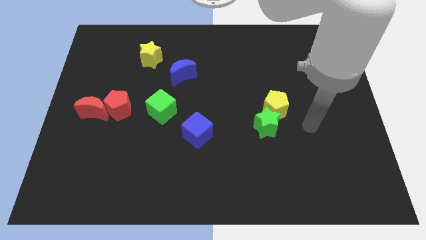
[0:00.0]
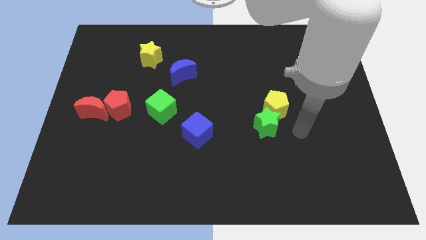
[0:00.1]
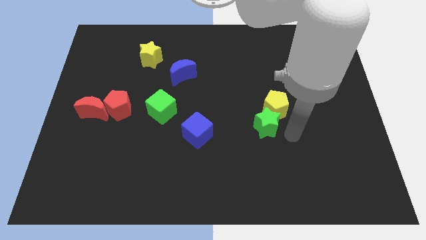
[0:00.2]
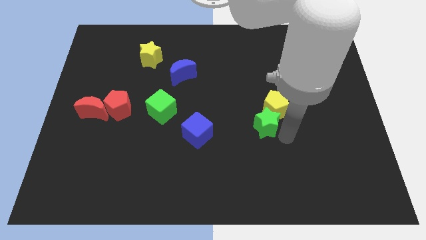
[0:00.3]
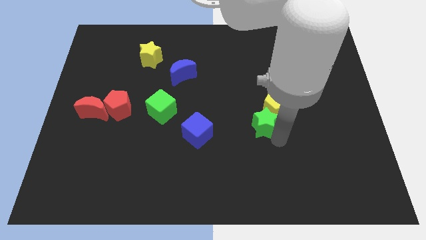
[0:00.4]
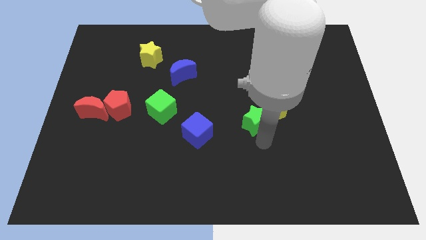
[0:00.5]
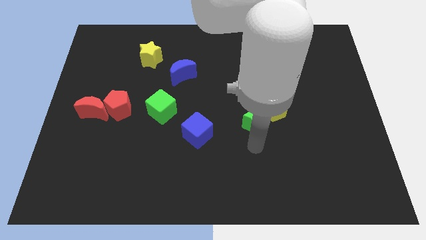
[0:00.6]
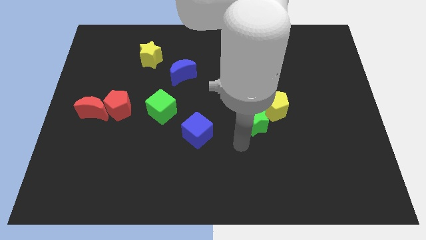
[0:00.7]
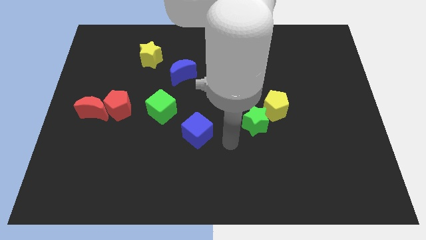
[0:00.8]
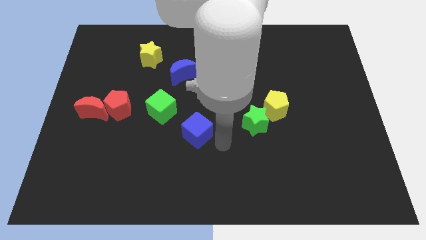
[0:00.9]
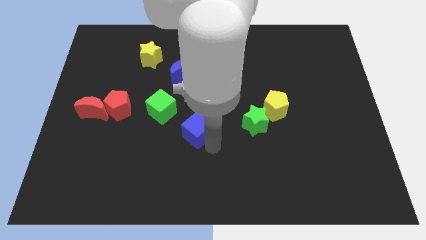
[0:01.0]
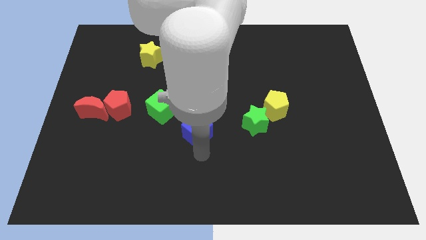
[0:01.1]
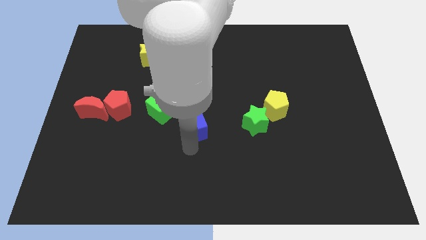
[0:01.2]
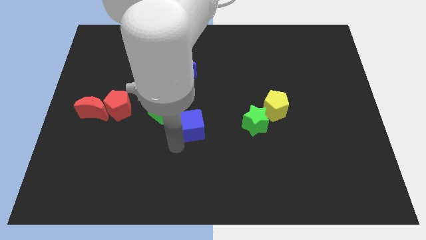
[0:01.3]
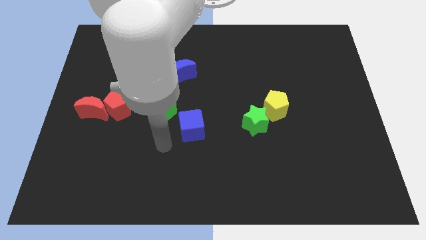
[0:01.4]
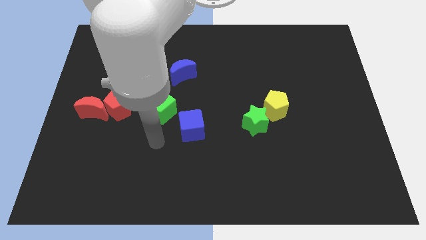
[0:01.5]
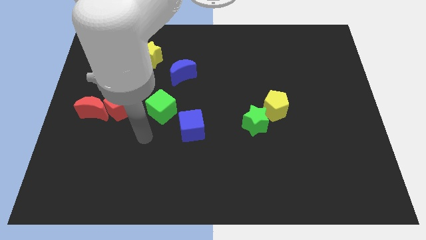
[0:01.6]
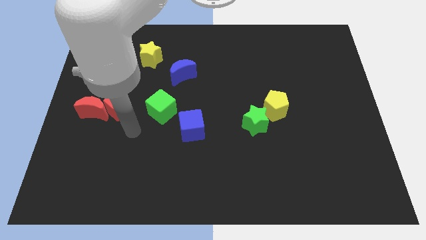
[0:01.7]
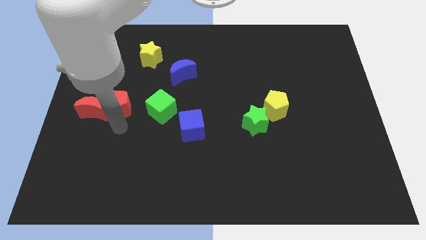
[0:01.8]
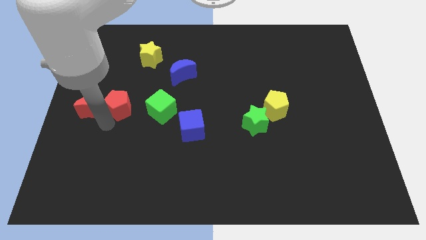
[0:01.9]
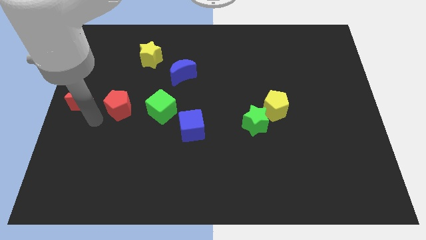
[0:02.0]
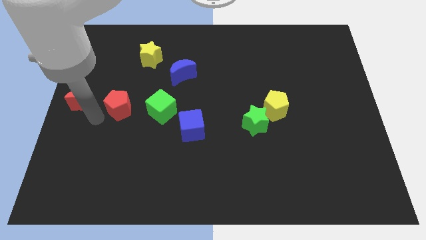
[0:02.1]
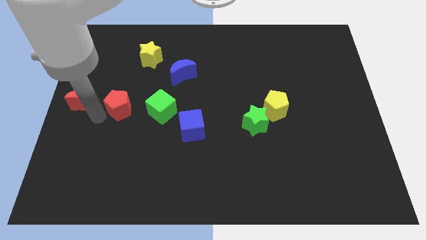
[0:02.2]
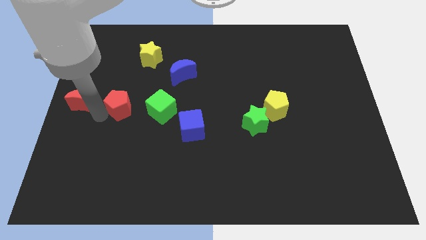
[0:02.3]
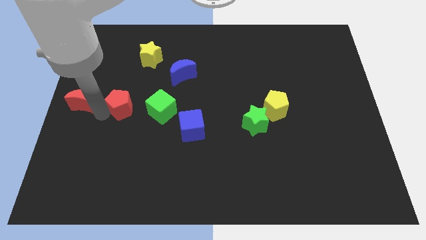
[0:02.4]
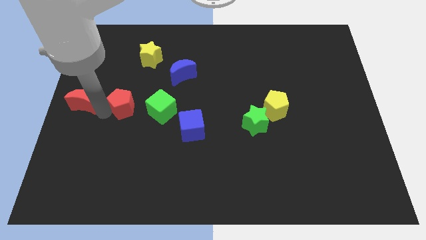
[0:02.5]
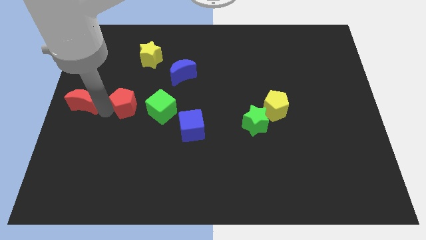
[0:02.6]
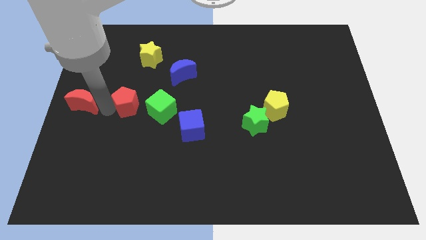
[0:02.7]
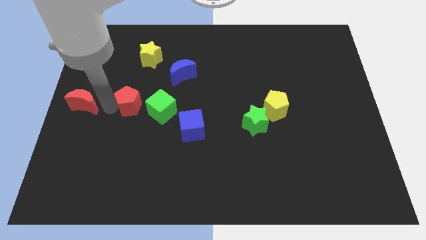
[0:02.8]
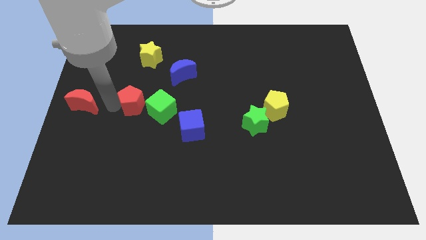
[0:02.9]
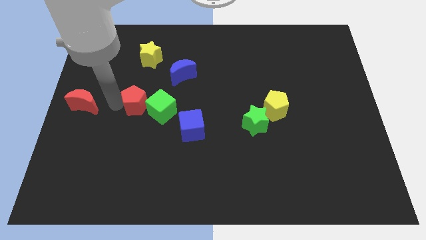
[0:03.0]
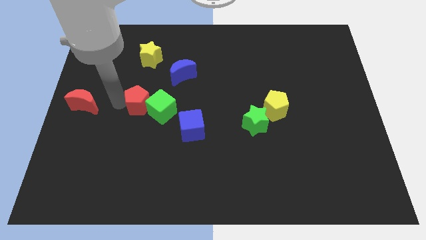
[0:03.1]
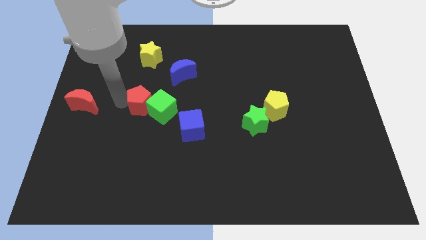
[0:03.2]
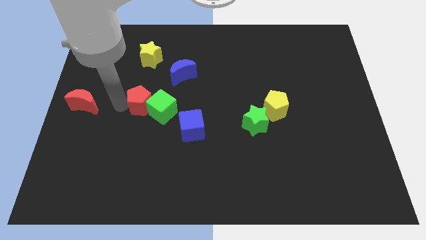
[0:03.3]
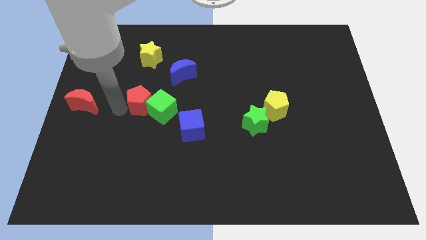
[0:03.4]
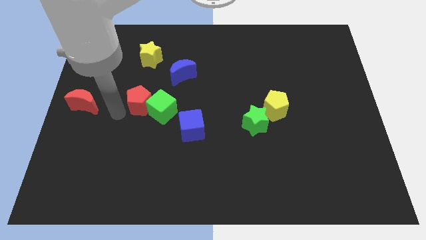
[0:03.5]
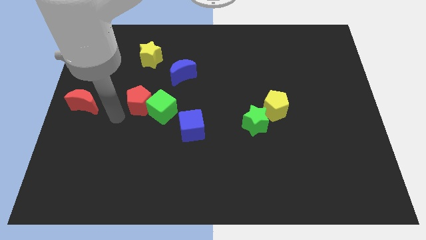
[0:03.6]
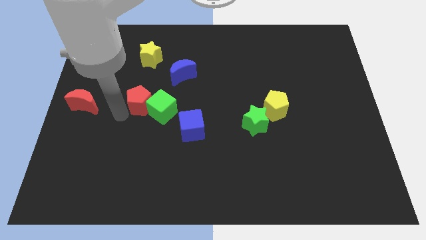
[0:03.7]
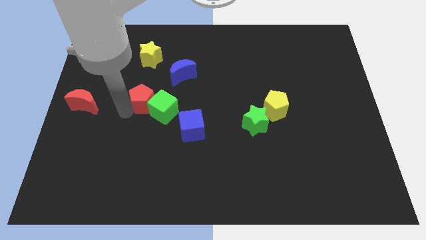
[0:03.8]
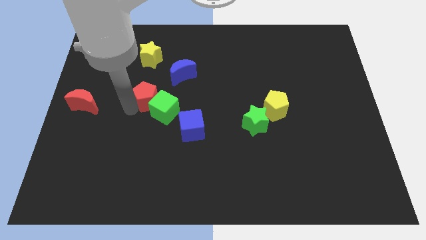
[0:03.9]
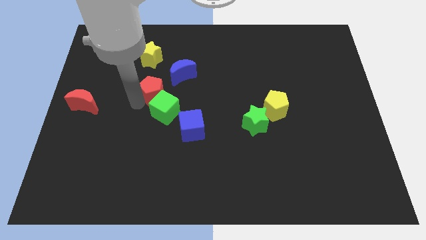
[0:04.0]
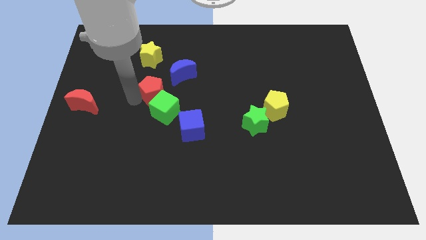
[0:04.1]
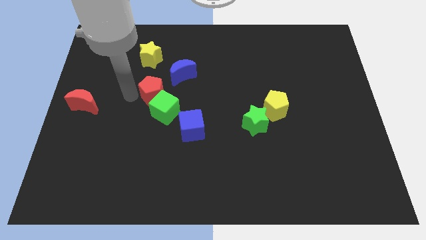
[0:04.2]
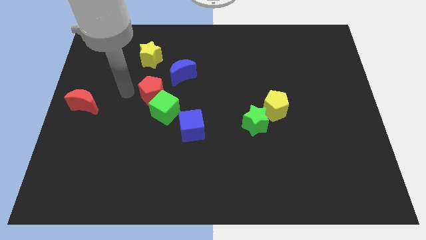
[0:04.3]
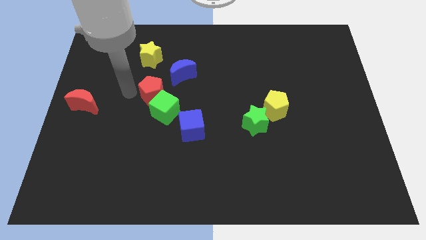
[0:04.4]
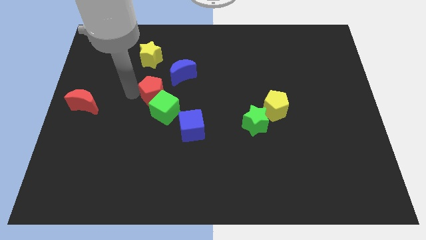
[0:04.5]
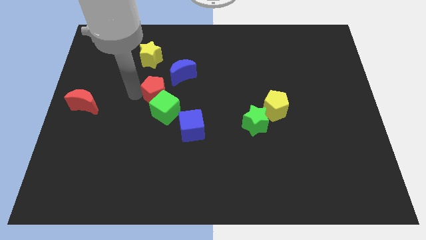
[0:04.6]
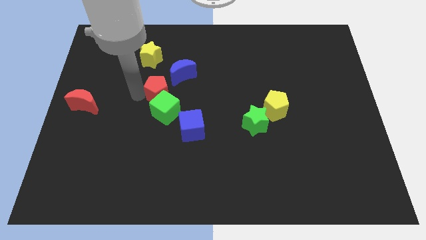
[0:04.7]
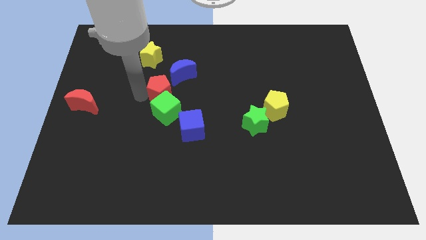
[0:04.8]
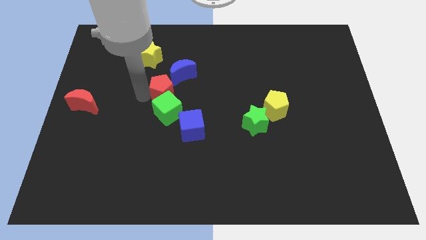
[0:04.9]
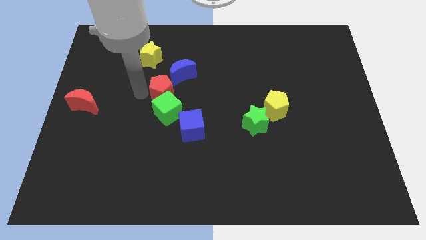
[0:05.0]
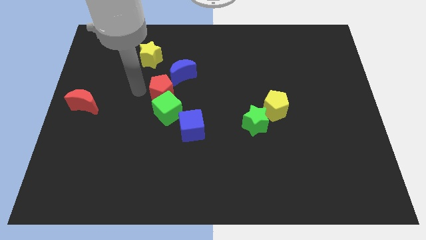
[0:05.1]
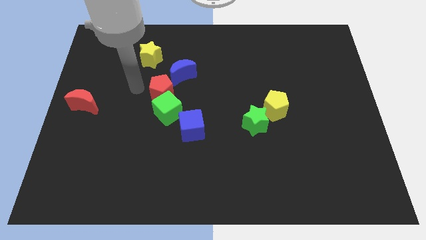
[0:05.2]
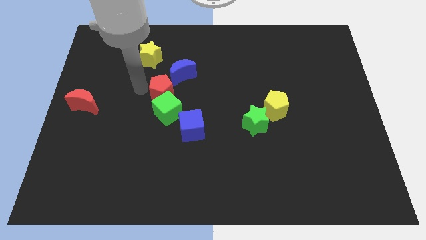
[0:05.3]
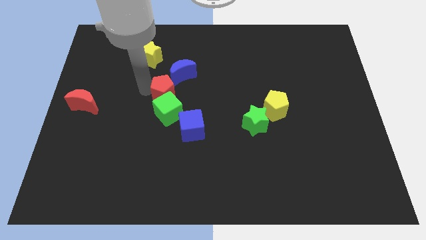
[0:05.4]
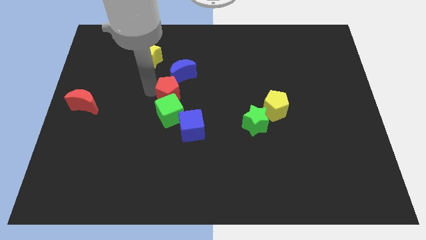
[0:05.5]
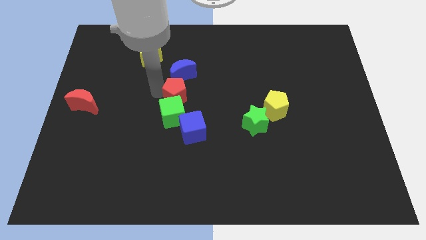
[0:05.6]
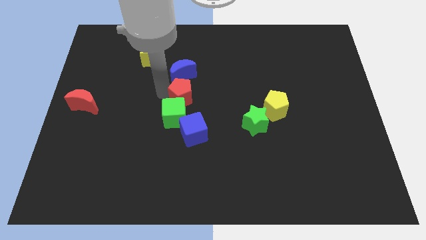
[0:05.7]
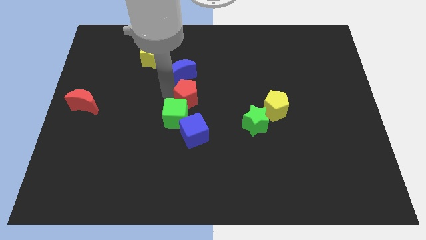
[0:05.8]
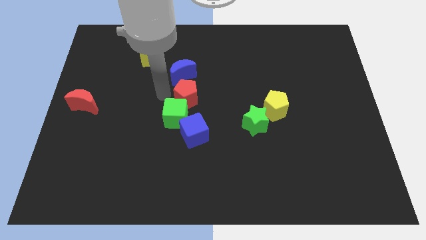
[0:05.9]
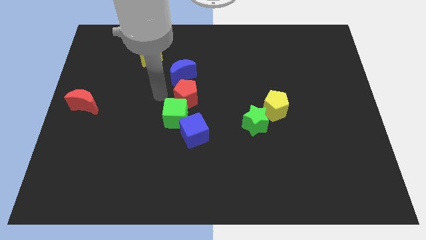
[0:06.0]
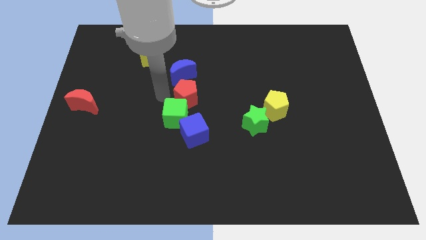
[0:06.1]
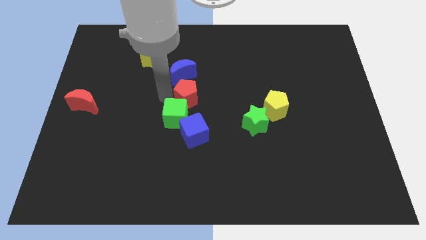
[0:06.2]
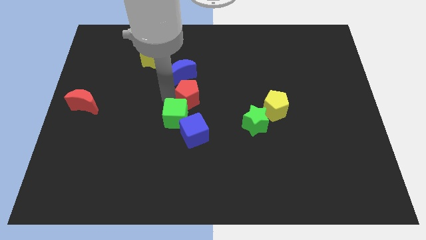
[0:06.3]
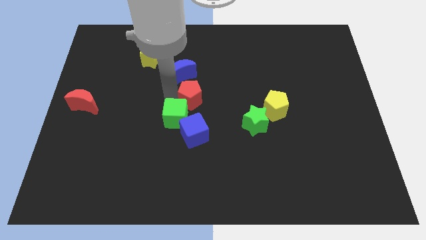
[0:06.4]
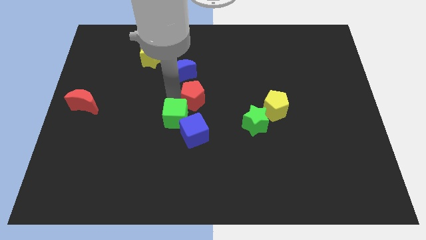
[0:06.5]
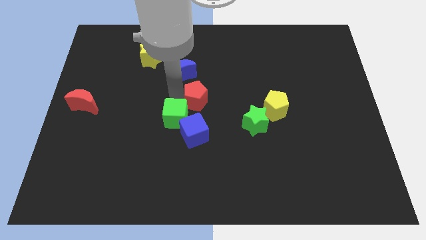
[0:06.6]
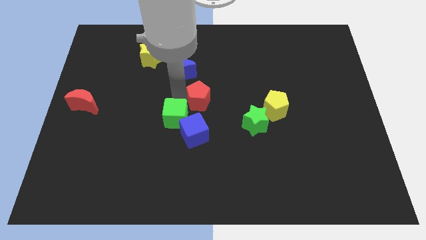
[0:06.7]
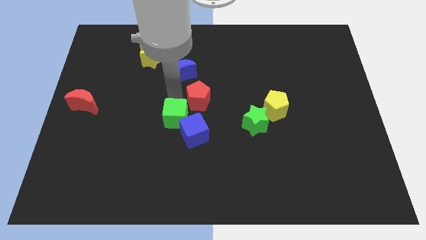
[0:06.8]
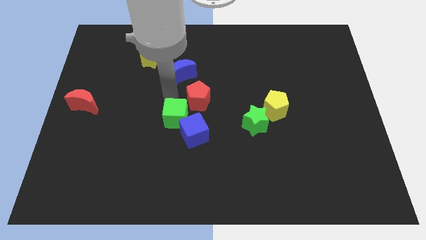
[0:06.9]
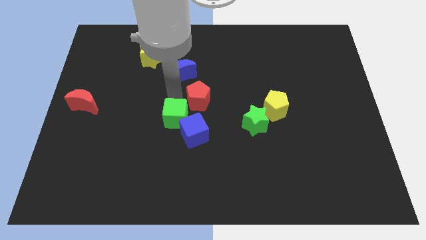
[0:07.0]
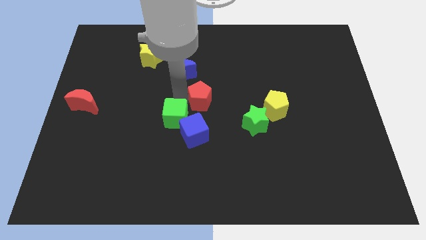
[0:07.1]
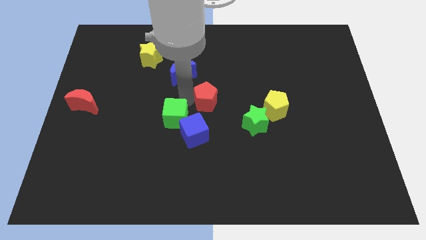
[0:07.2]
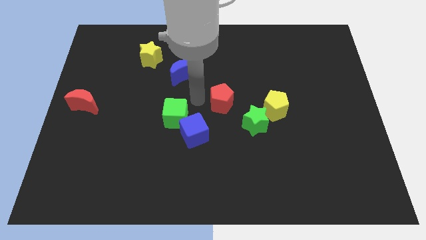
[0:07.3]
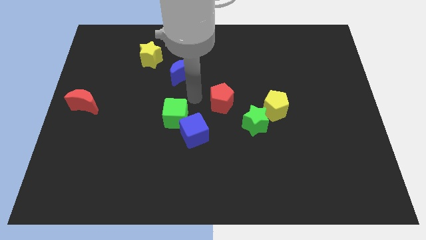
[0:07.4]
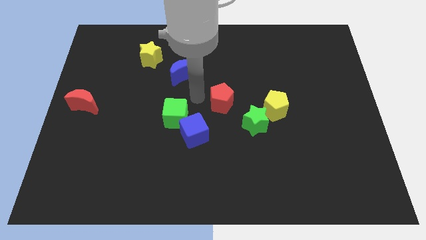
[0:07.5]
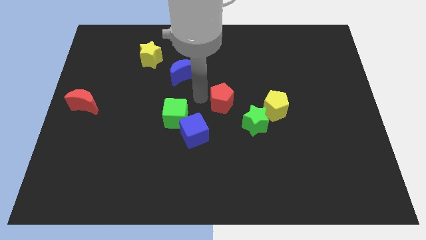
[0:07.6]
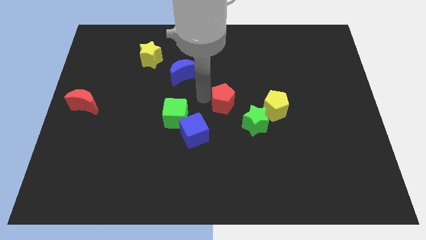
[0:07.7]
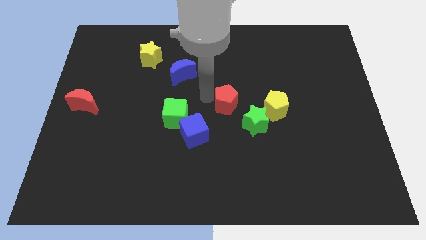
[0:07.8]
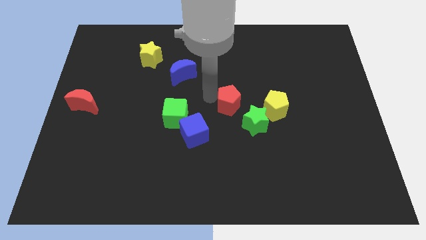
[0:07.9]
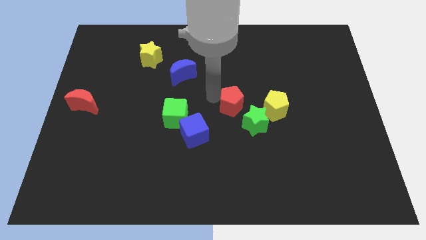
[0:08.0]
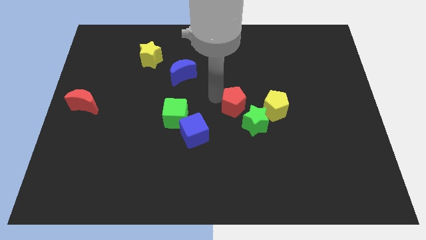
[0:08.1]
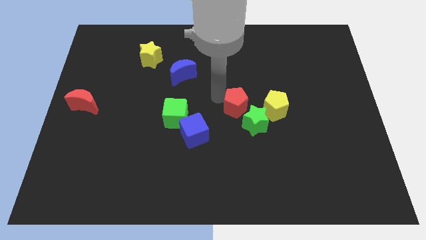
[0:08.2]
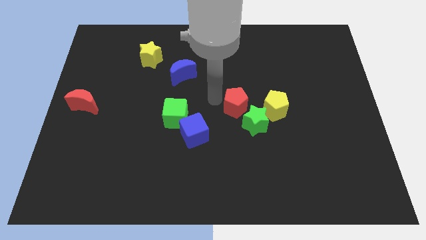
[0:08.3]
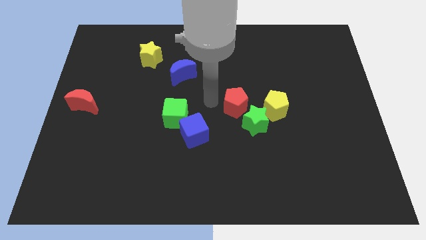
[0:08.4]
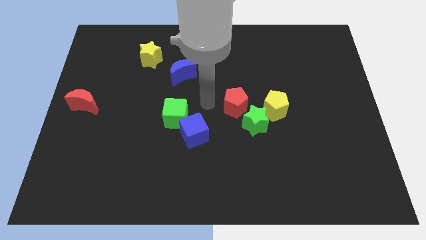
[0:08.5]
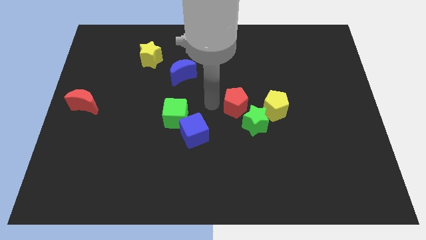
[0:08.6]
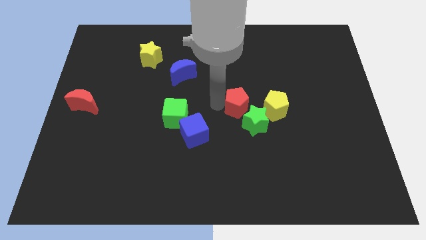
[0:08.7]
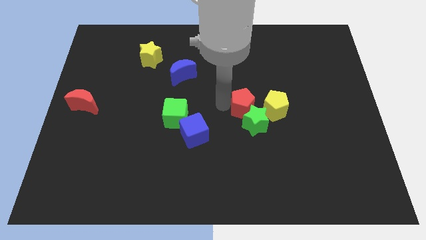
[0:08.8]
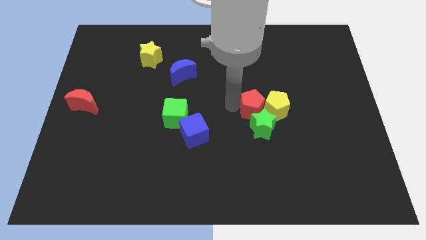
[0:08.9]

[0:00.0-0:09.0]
put the red pentagon next to the yellow pentagon
